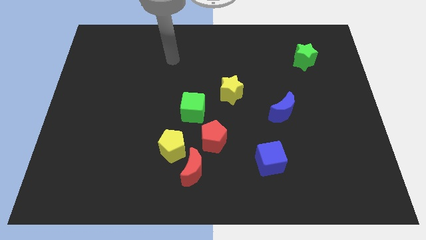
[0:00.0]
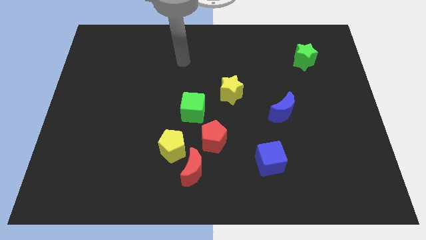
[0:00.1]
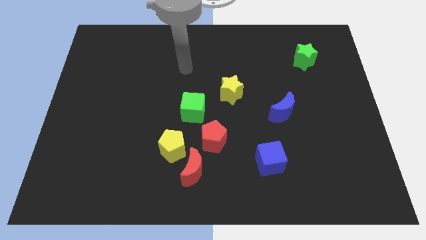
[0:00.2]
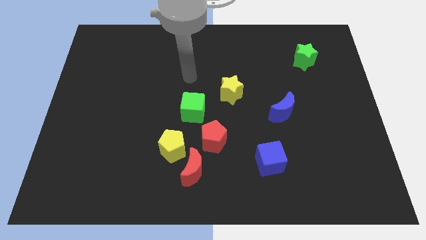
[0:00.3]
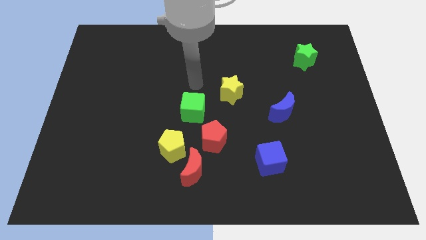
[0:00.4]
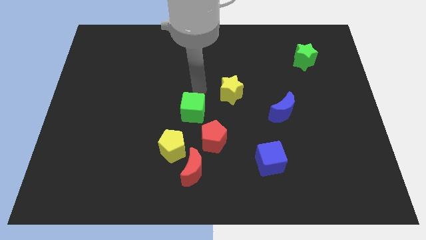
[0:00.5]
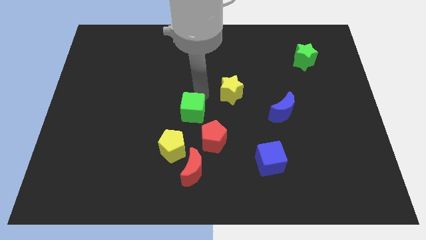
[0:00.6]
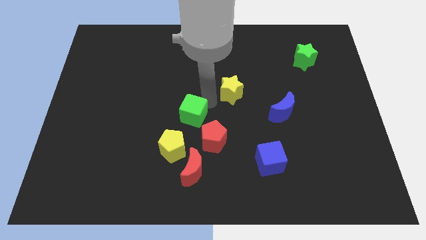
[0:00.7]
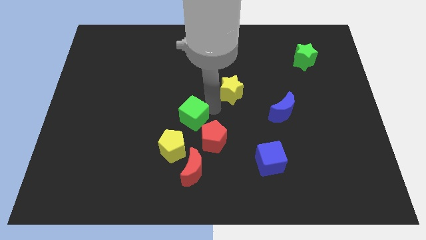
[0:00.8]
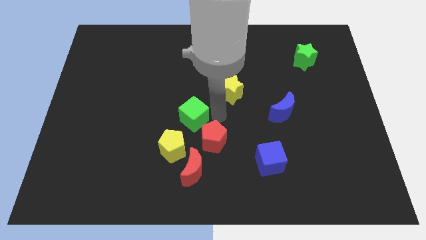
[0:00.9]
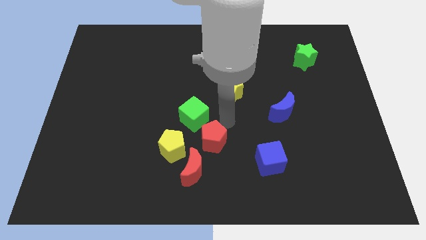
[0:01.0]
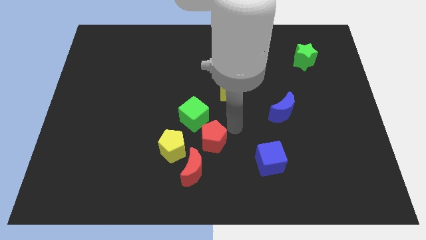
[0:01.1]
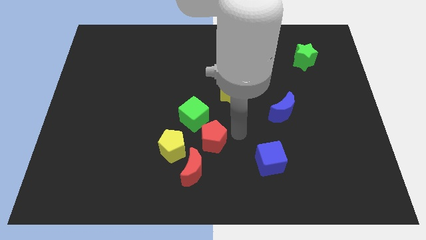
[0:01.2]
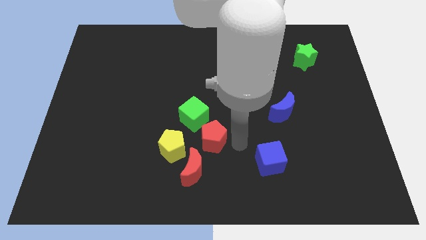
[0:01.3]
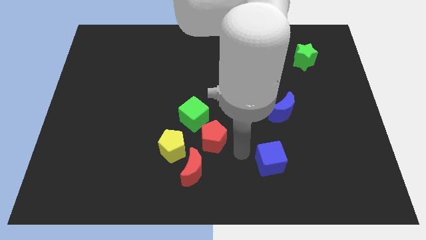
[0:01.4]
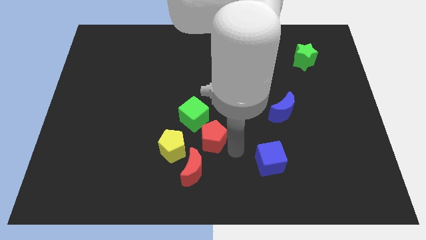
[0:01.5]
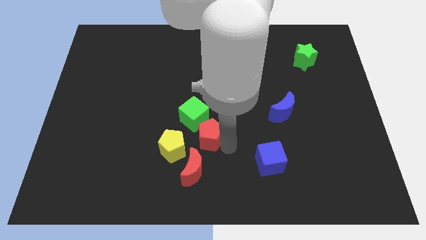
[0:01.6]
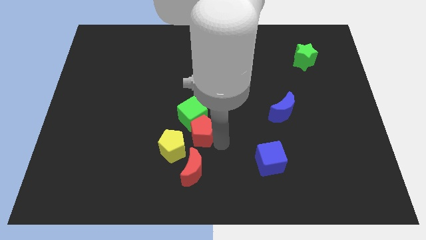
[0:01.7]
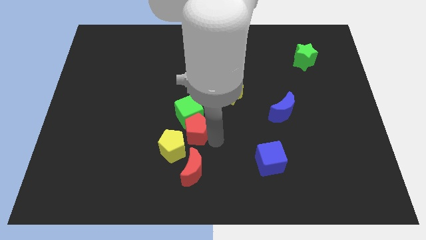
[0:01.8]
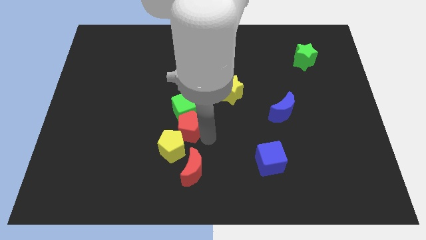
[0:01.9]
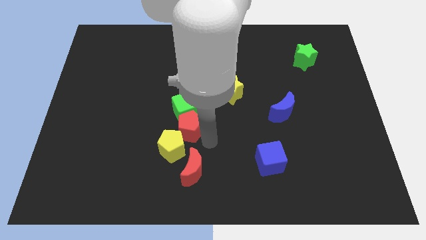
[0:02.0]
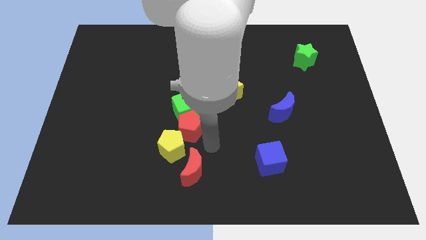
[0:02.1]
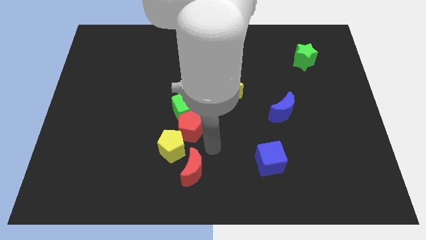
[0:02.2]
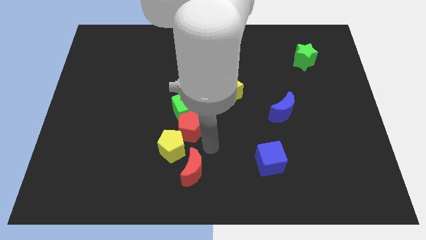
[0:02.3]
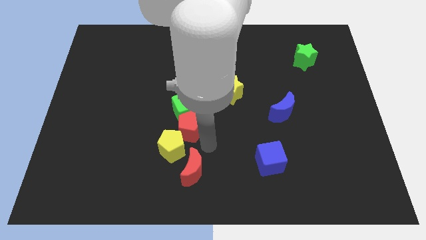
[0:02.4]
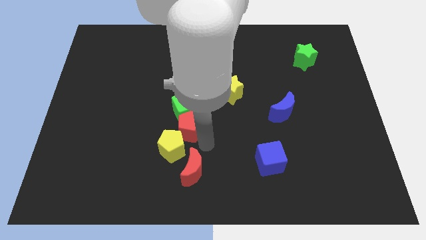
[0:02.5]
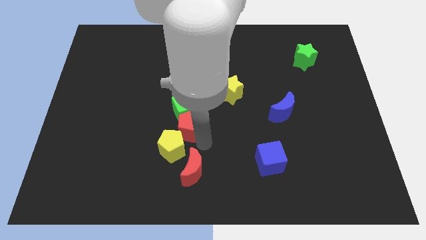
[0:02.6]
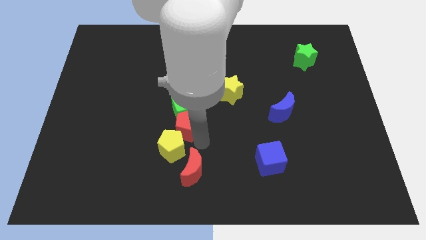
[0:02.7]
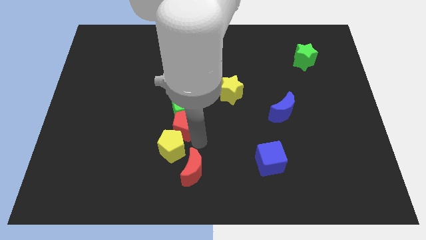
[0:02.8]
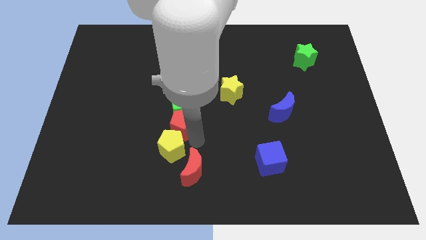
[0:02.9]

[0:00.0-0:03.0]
slightly move the red pentagon upwards and left diagonally

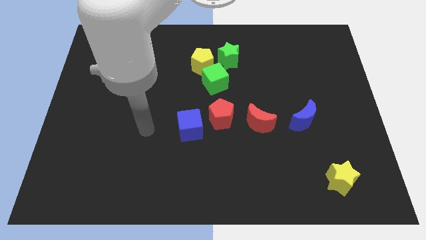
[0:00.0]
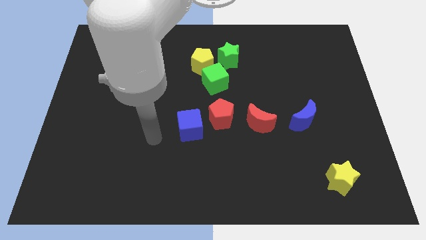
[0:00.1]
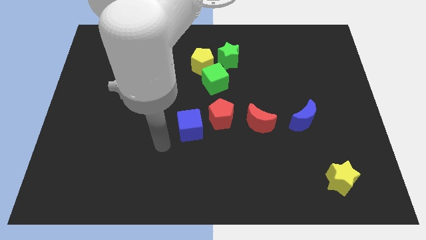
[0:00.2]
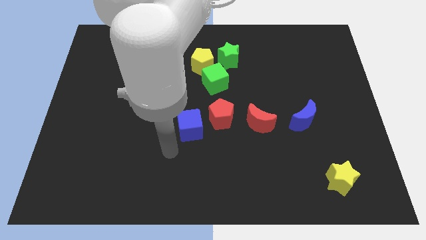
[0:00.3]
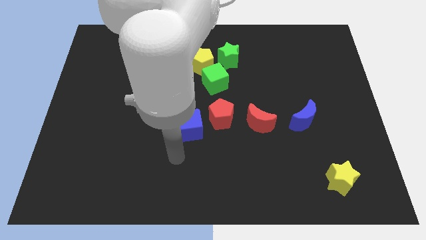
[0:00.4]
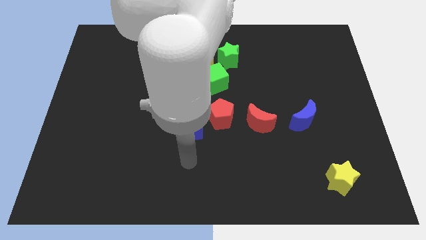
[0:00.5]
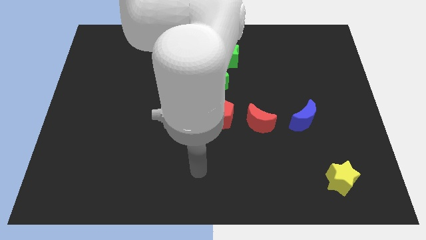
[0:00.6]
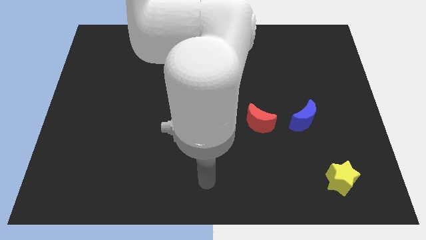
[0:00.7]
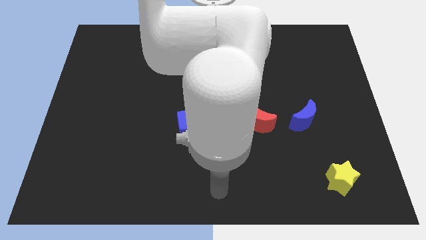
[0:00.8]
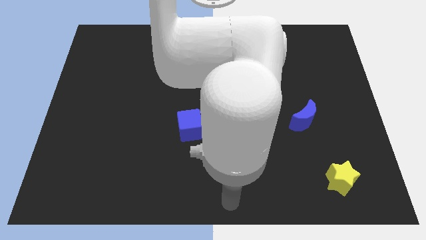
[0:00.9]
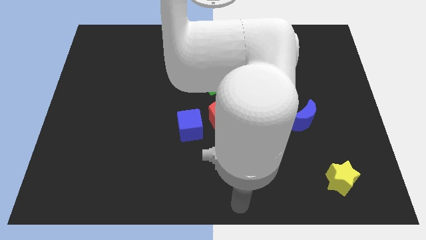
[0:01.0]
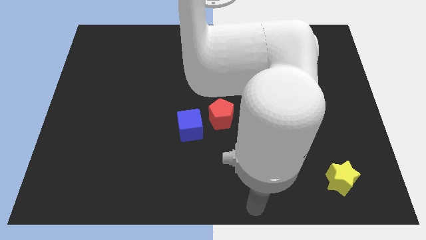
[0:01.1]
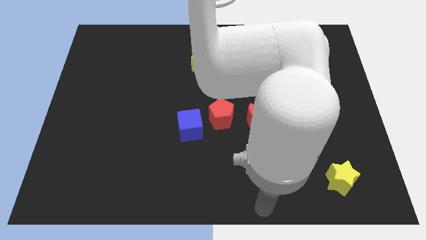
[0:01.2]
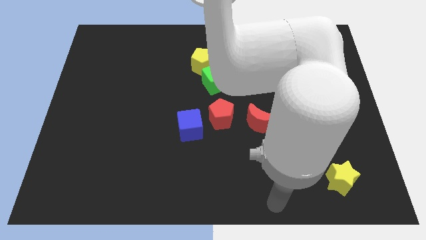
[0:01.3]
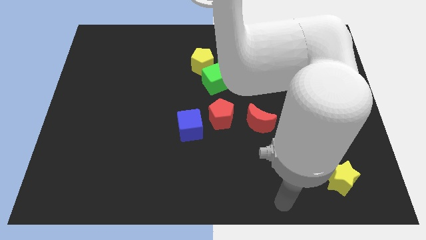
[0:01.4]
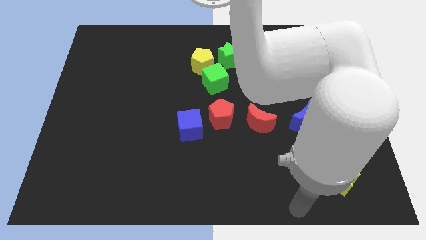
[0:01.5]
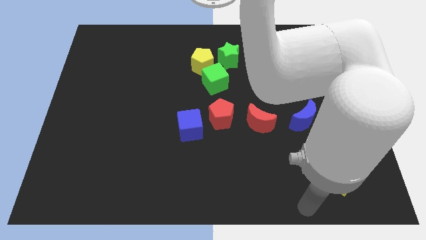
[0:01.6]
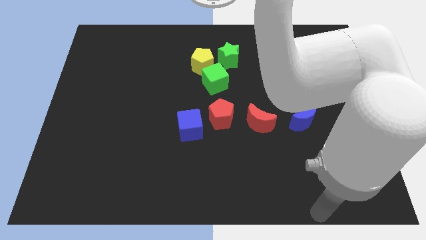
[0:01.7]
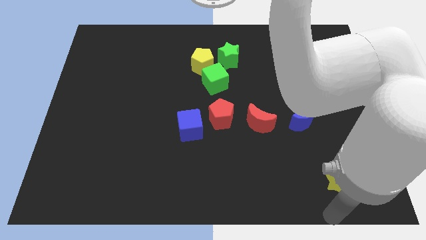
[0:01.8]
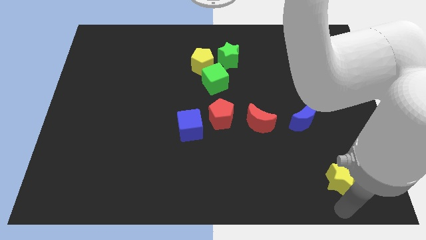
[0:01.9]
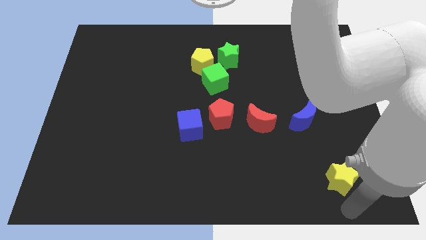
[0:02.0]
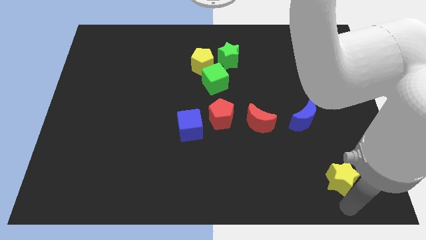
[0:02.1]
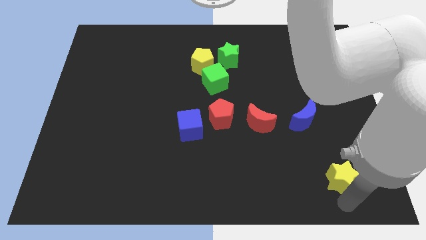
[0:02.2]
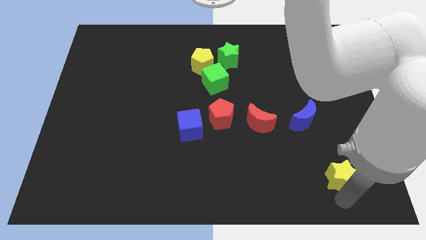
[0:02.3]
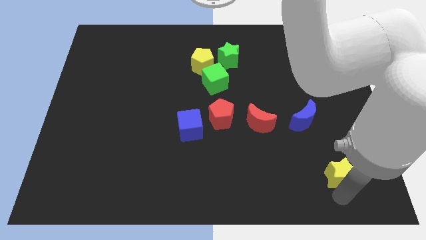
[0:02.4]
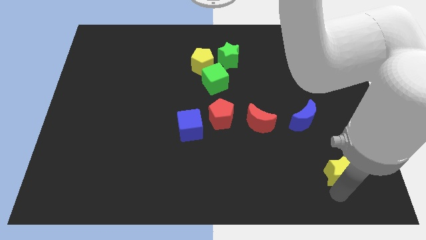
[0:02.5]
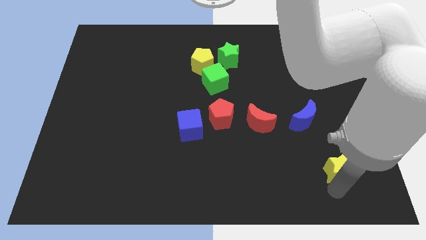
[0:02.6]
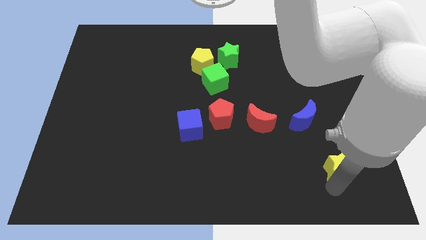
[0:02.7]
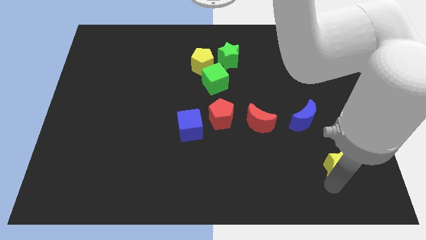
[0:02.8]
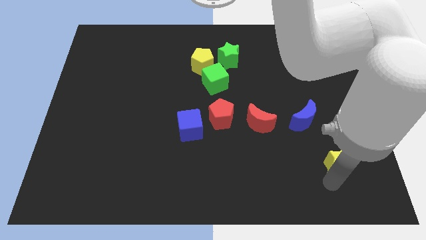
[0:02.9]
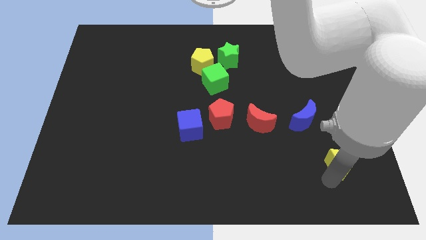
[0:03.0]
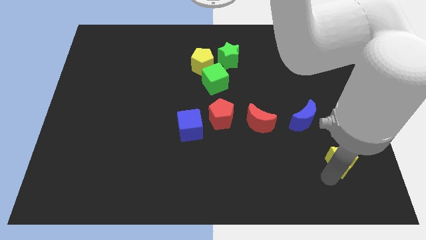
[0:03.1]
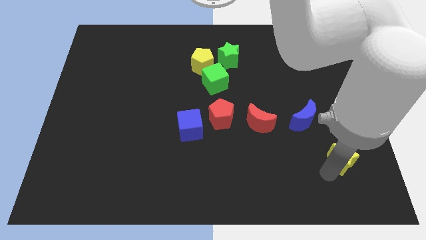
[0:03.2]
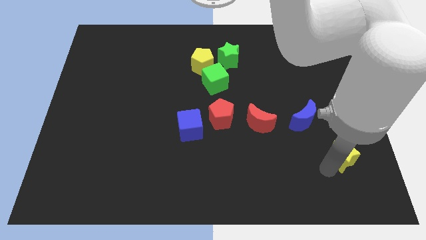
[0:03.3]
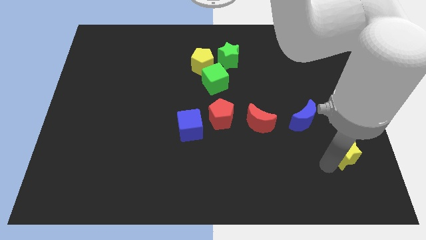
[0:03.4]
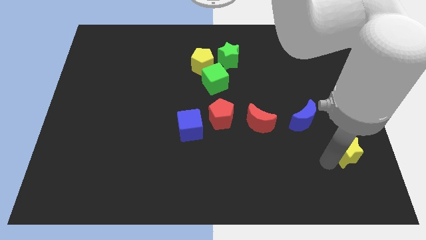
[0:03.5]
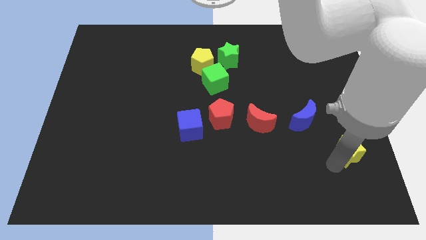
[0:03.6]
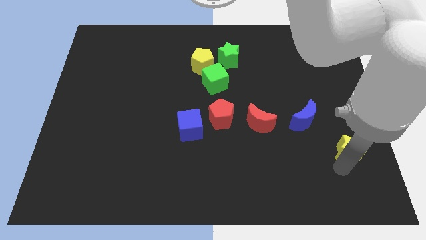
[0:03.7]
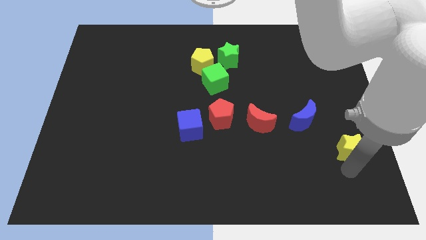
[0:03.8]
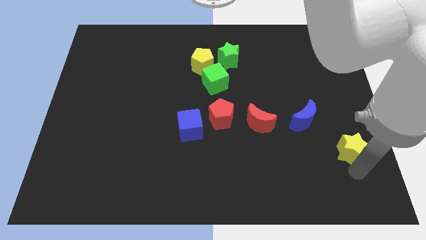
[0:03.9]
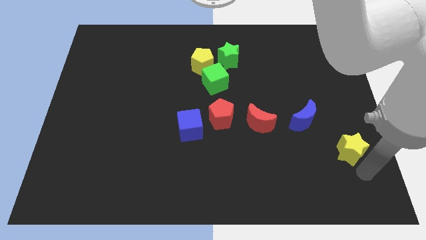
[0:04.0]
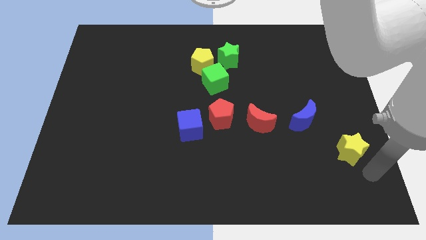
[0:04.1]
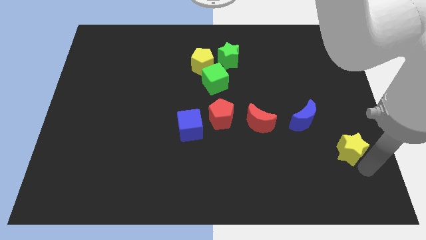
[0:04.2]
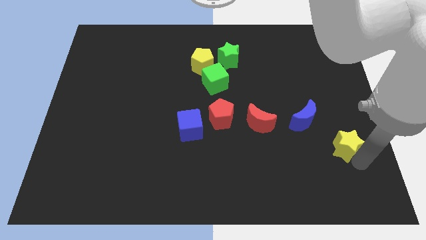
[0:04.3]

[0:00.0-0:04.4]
slide the yellow star upwards a little bit

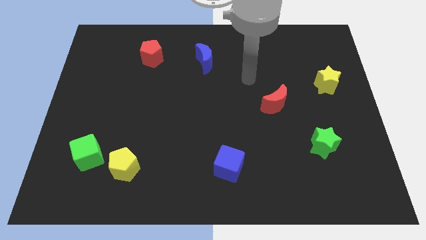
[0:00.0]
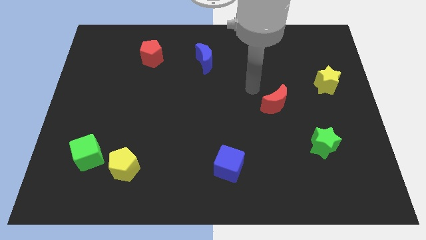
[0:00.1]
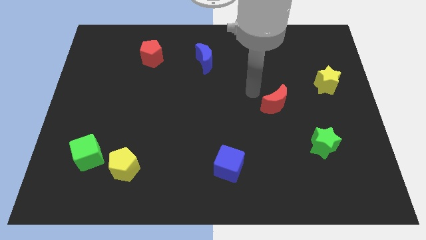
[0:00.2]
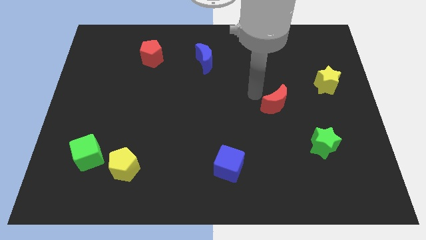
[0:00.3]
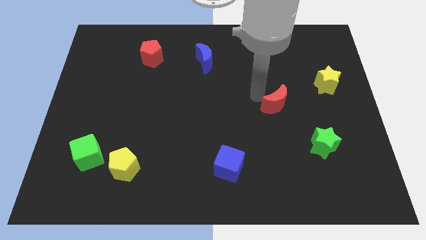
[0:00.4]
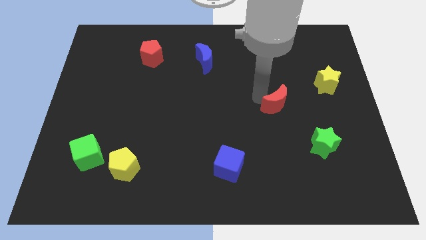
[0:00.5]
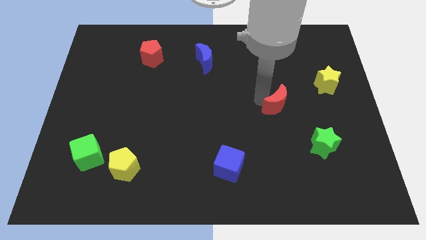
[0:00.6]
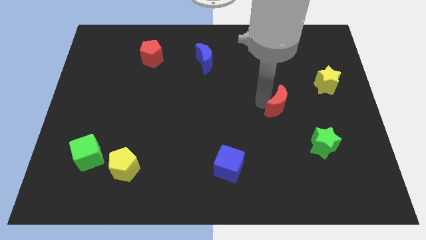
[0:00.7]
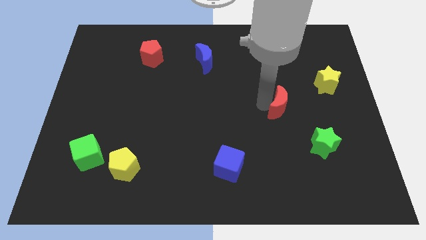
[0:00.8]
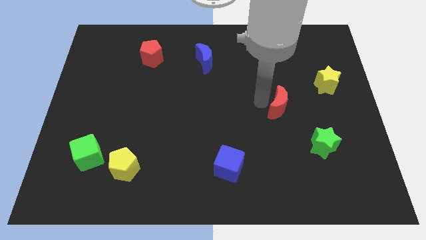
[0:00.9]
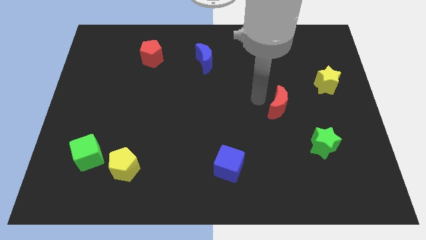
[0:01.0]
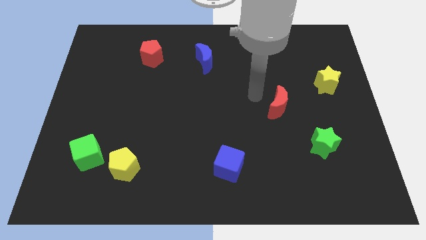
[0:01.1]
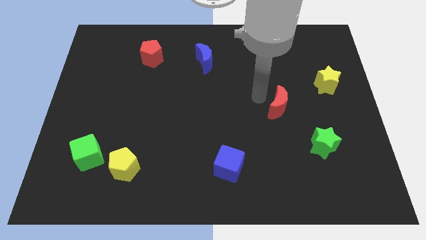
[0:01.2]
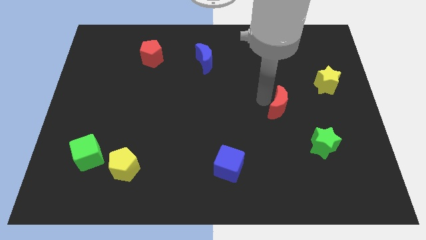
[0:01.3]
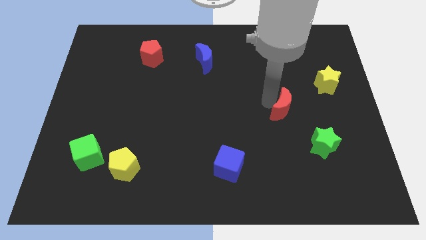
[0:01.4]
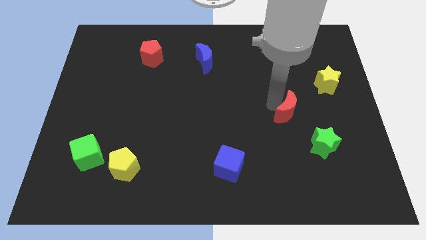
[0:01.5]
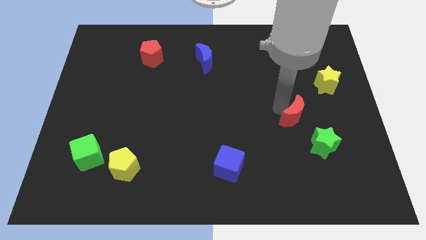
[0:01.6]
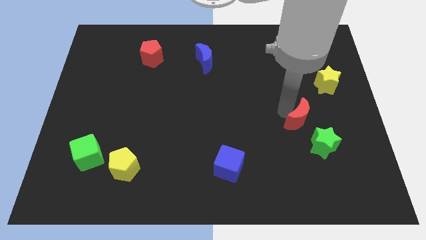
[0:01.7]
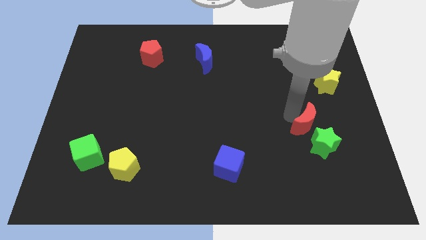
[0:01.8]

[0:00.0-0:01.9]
slide the red moon downwards and right diagonally a bit
